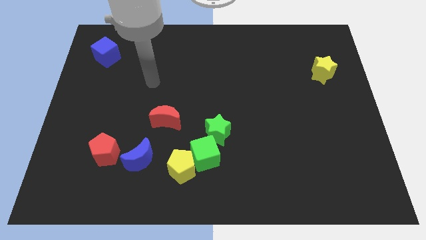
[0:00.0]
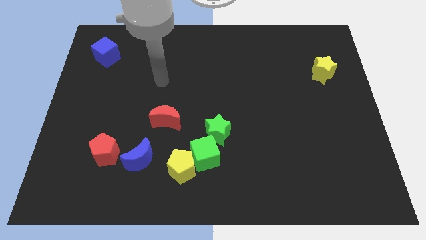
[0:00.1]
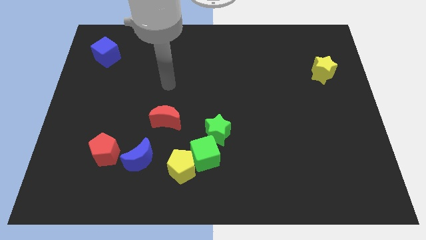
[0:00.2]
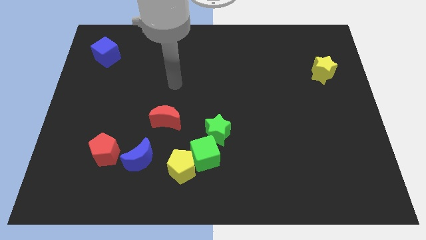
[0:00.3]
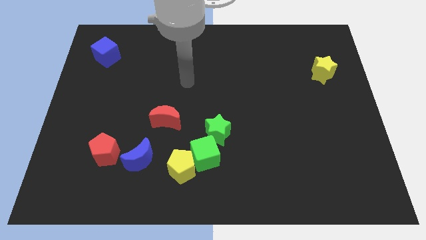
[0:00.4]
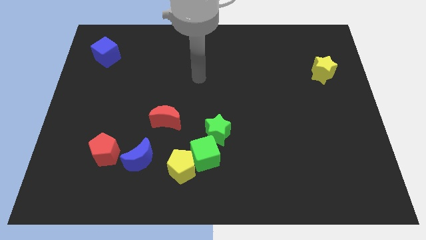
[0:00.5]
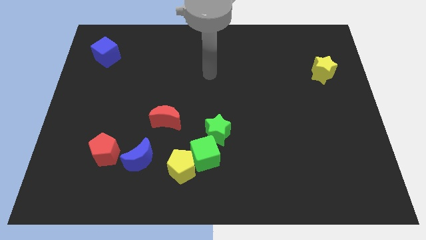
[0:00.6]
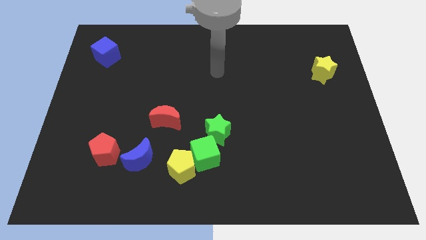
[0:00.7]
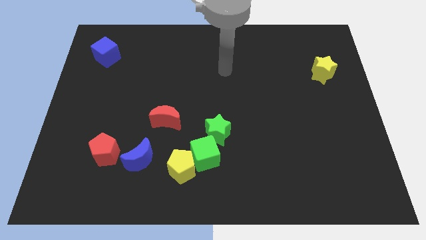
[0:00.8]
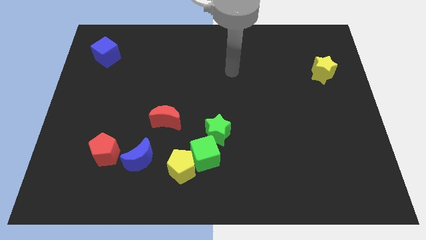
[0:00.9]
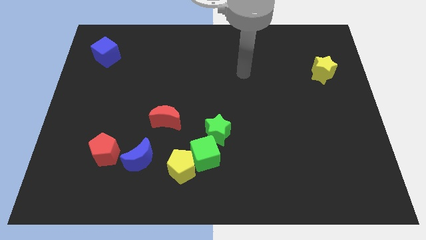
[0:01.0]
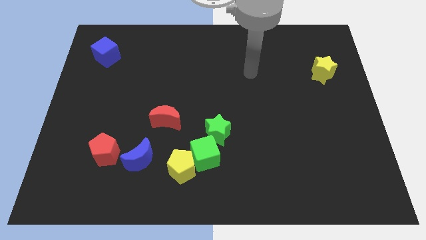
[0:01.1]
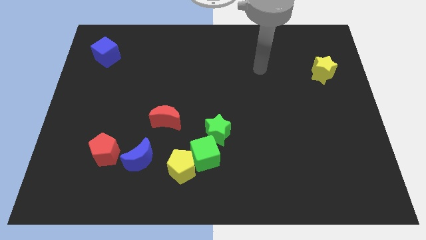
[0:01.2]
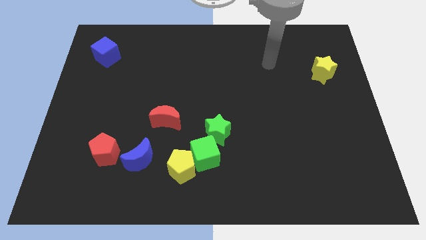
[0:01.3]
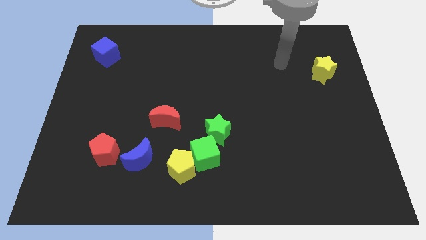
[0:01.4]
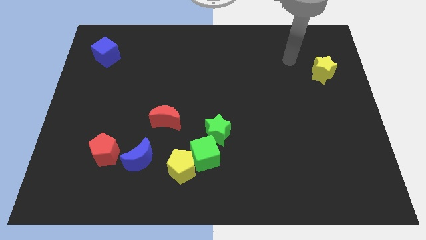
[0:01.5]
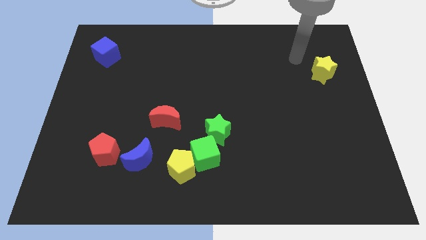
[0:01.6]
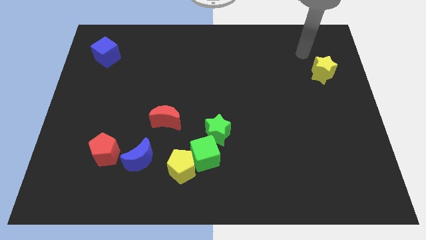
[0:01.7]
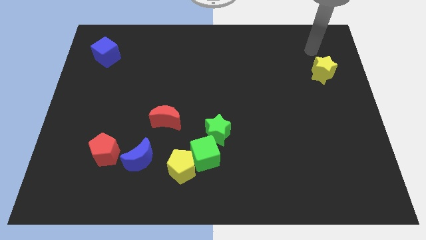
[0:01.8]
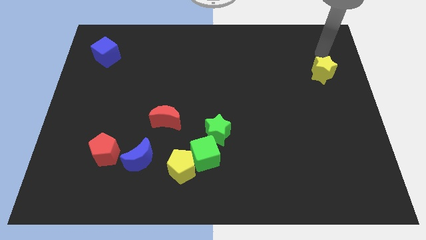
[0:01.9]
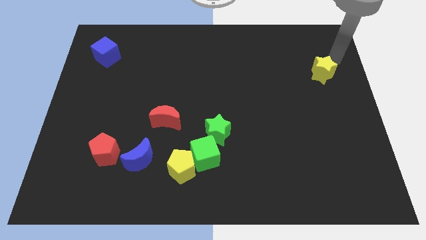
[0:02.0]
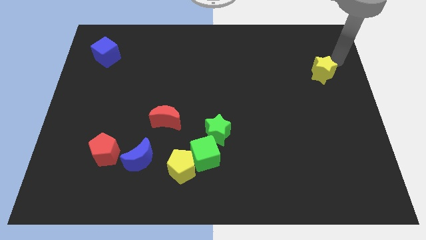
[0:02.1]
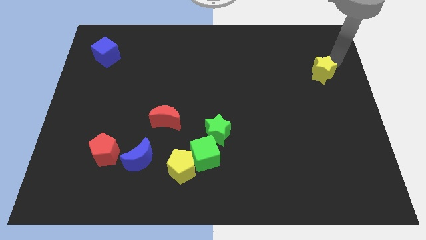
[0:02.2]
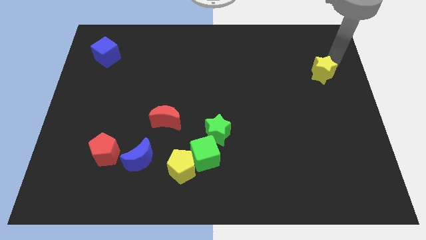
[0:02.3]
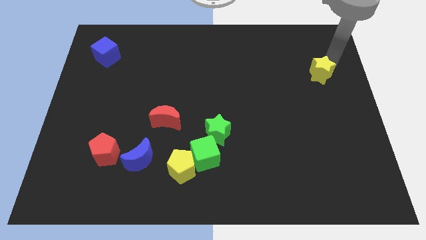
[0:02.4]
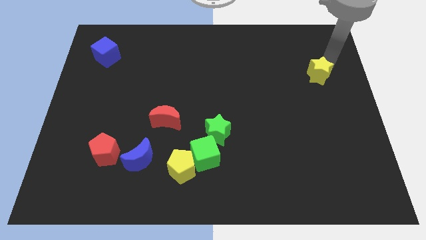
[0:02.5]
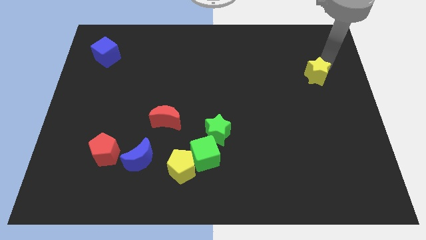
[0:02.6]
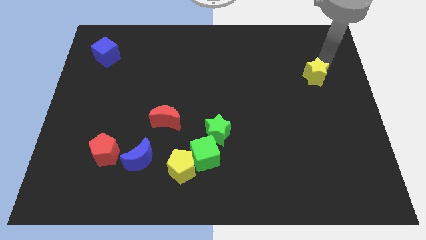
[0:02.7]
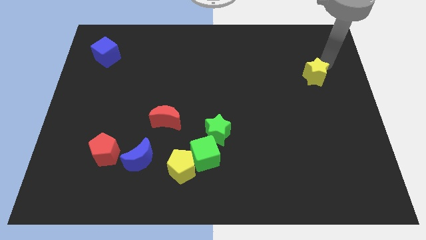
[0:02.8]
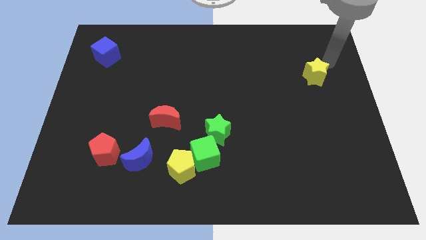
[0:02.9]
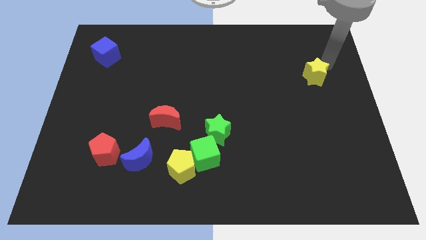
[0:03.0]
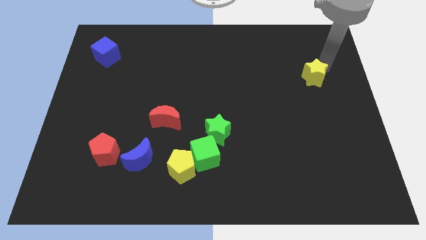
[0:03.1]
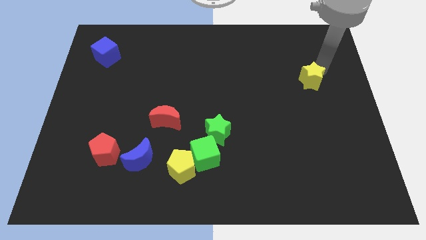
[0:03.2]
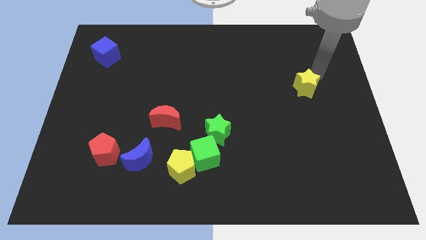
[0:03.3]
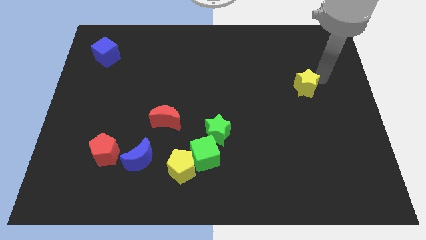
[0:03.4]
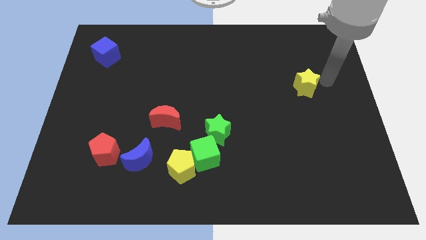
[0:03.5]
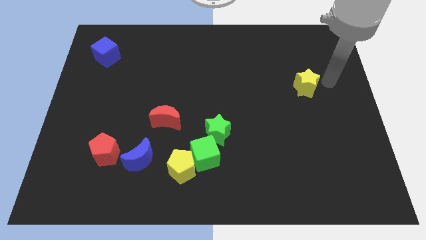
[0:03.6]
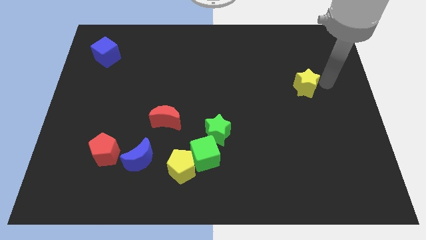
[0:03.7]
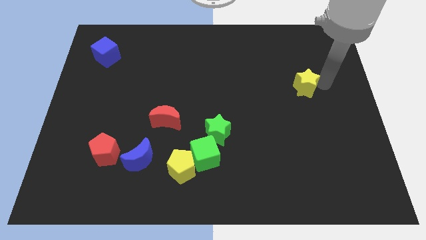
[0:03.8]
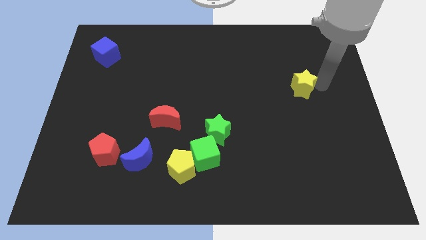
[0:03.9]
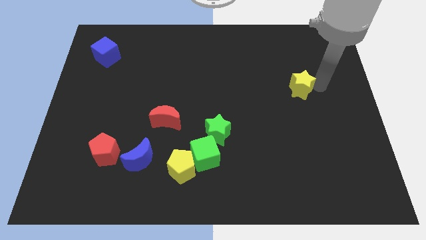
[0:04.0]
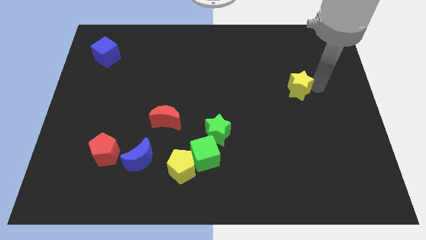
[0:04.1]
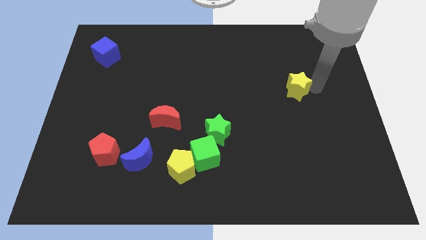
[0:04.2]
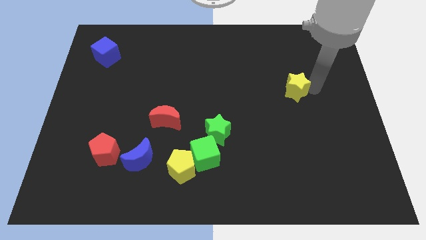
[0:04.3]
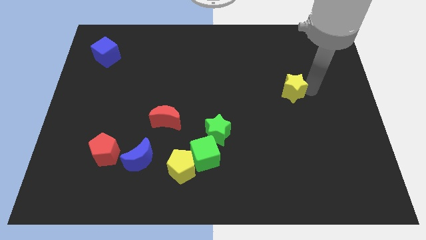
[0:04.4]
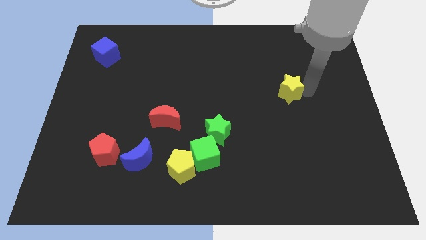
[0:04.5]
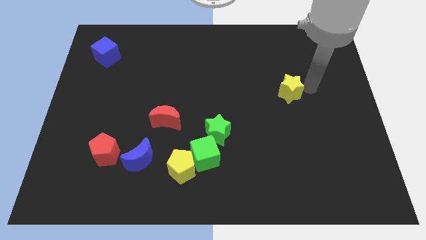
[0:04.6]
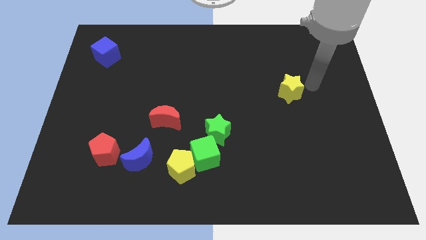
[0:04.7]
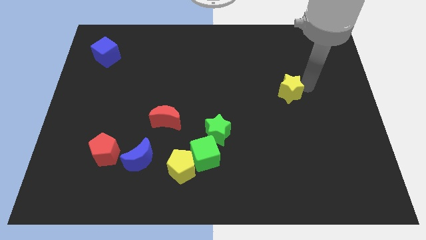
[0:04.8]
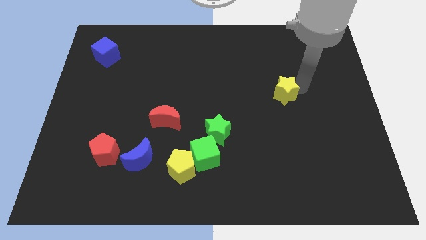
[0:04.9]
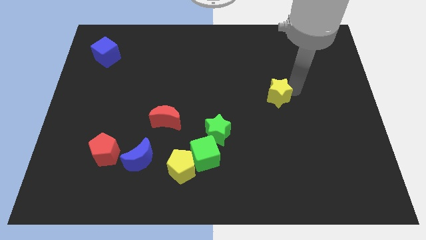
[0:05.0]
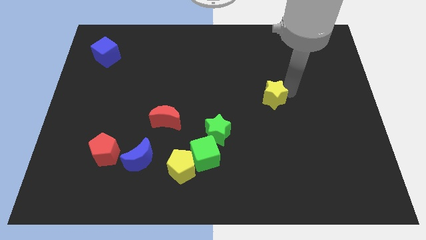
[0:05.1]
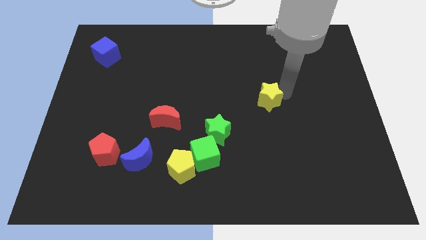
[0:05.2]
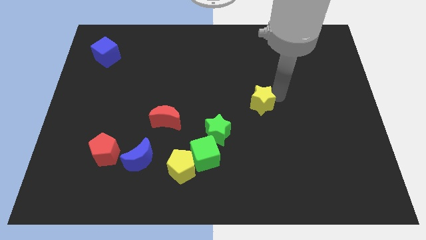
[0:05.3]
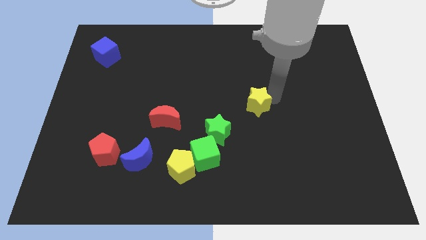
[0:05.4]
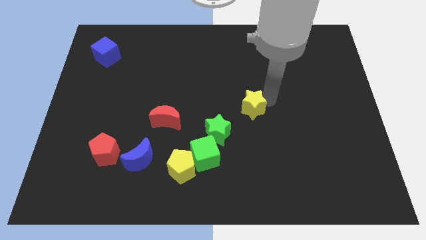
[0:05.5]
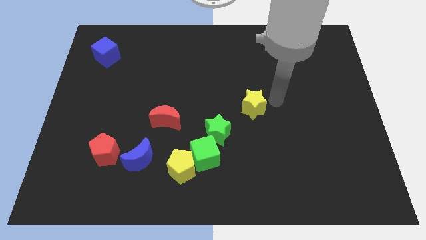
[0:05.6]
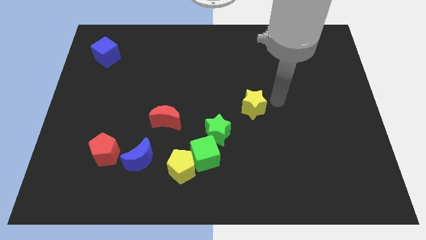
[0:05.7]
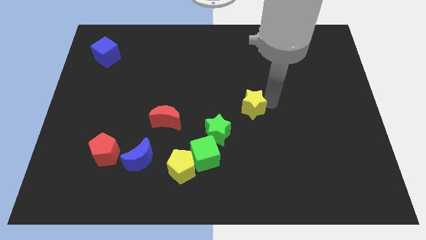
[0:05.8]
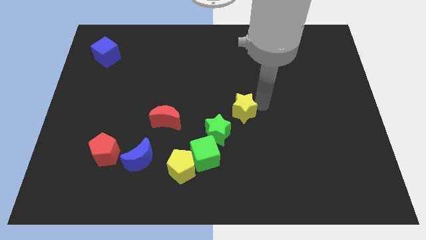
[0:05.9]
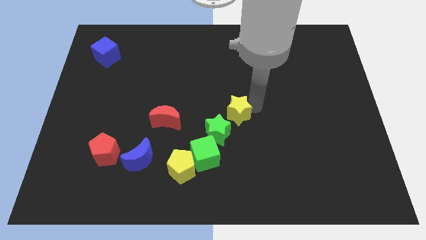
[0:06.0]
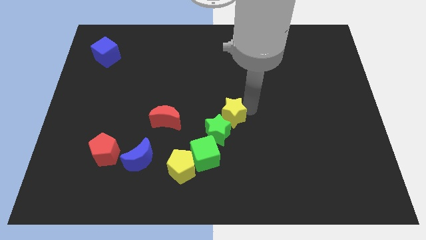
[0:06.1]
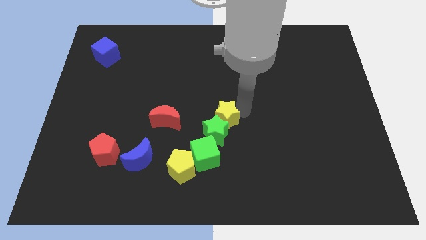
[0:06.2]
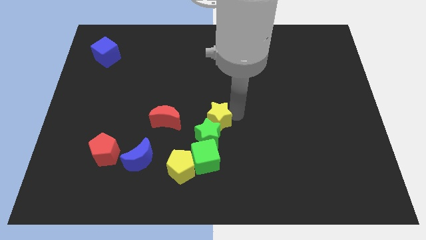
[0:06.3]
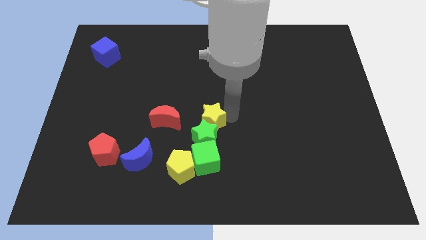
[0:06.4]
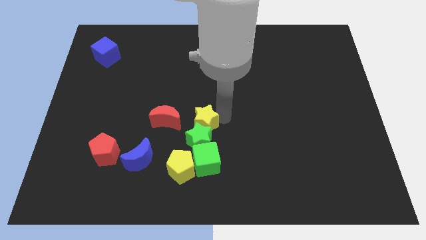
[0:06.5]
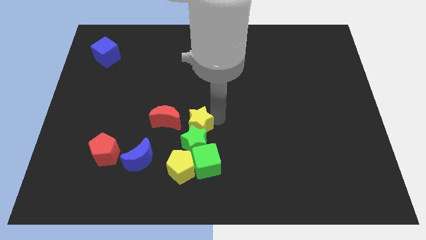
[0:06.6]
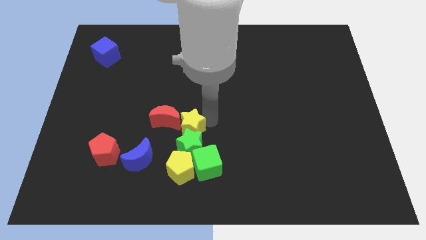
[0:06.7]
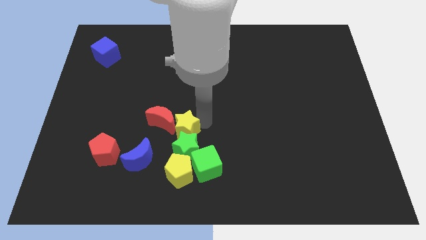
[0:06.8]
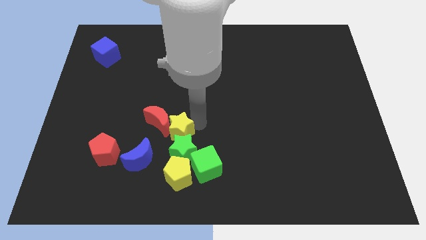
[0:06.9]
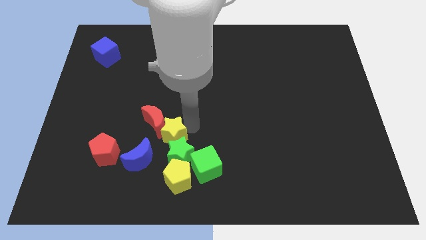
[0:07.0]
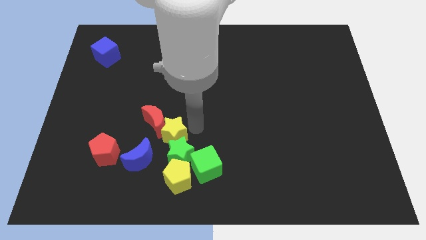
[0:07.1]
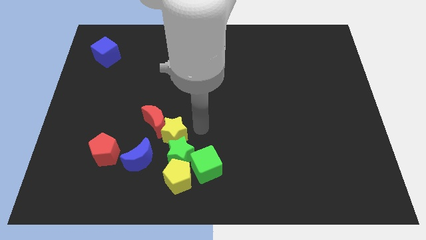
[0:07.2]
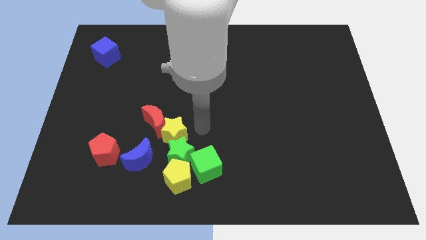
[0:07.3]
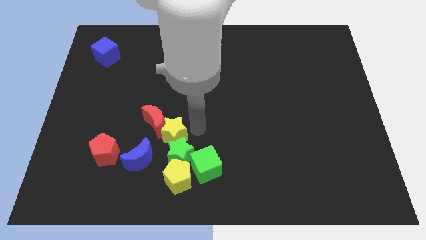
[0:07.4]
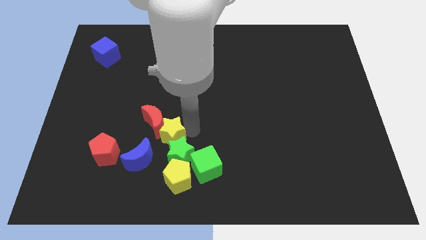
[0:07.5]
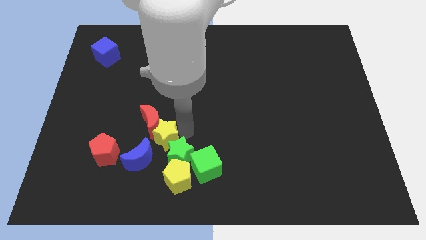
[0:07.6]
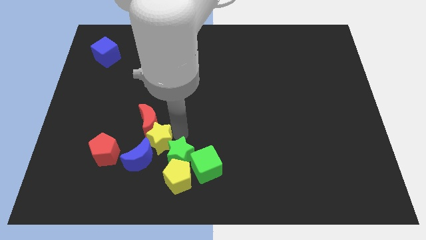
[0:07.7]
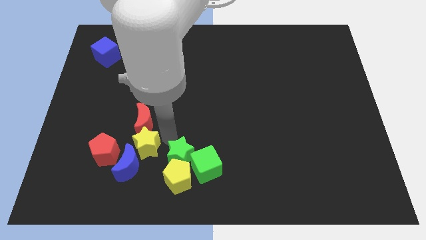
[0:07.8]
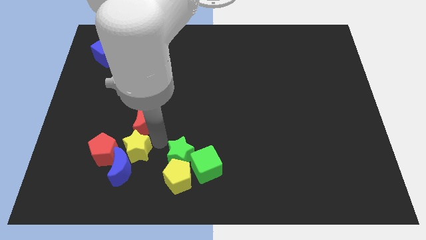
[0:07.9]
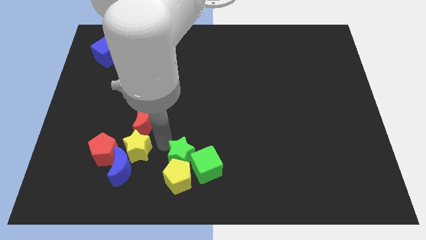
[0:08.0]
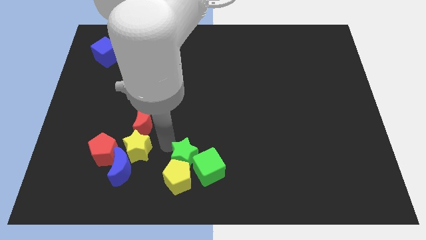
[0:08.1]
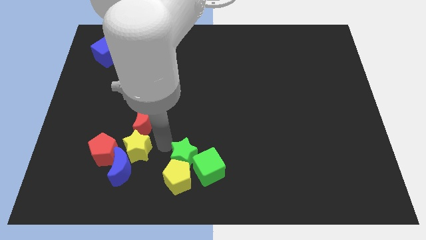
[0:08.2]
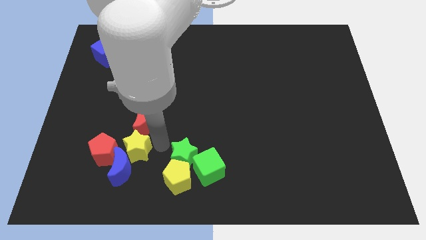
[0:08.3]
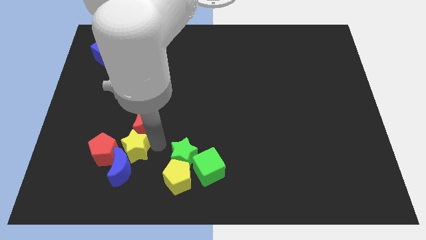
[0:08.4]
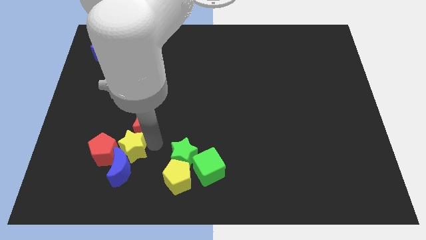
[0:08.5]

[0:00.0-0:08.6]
slide the yellow star next to the red pentagon
